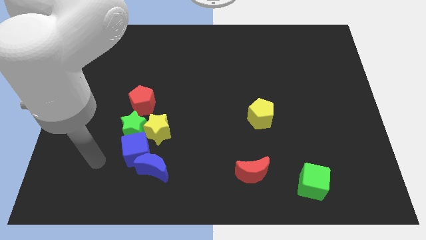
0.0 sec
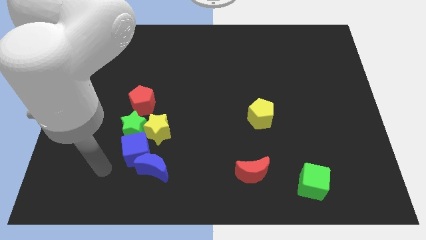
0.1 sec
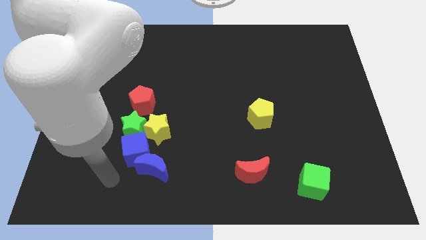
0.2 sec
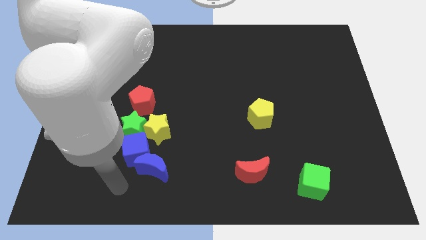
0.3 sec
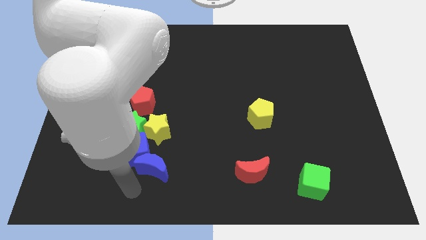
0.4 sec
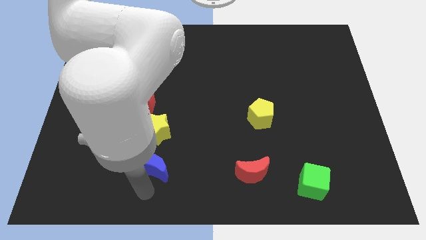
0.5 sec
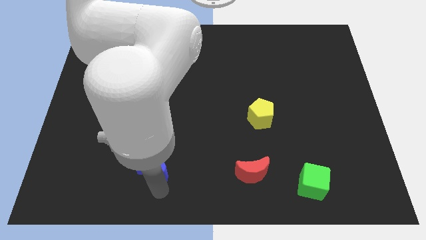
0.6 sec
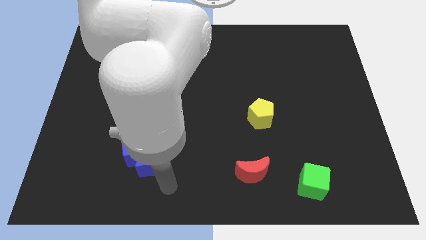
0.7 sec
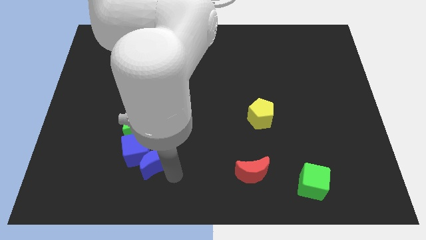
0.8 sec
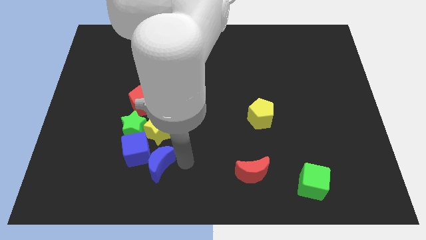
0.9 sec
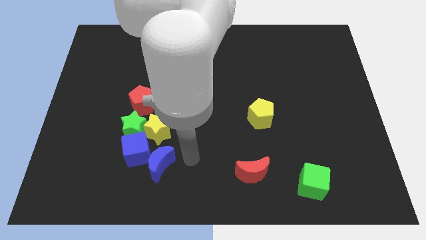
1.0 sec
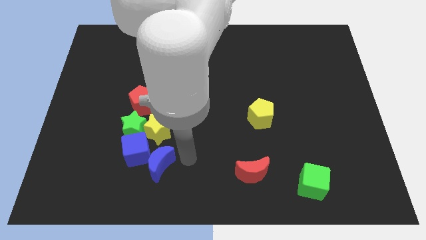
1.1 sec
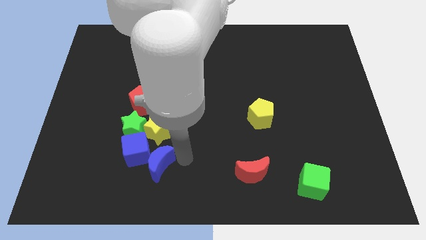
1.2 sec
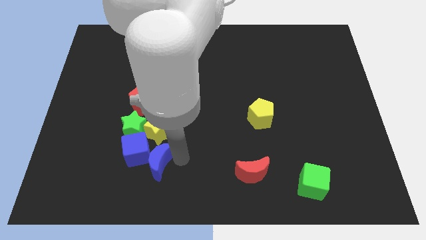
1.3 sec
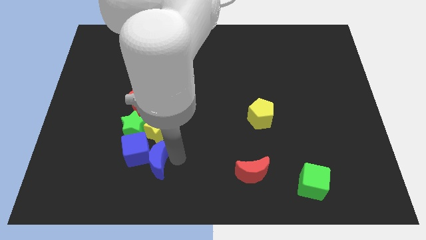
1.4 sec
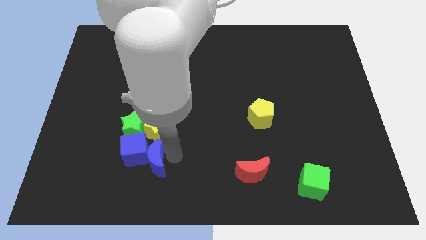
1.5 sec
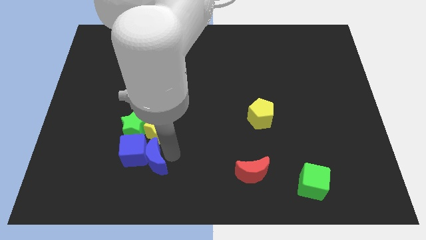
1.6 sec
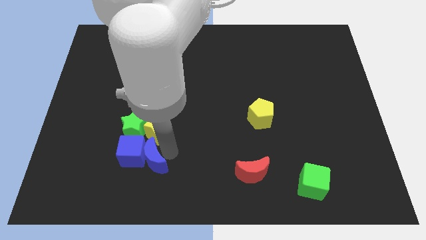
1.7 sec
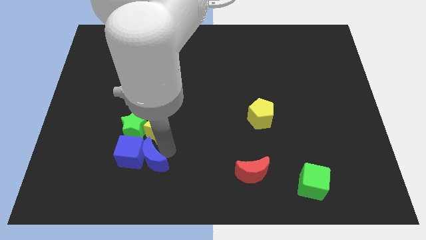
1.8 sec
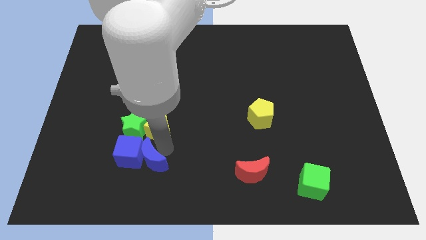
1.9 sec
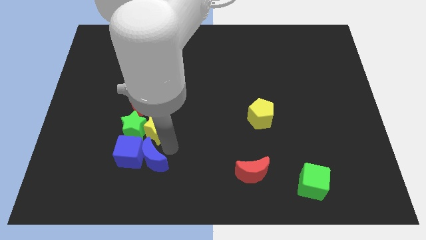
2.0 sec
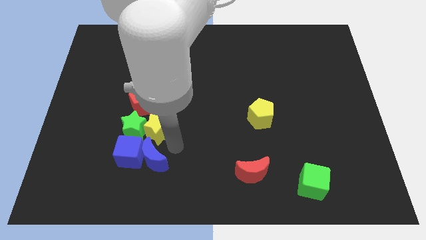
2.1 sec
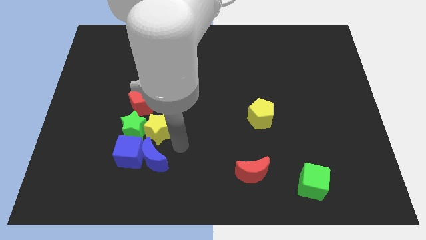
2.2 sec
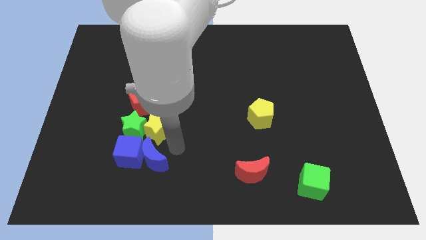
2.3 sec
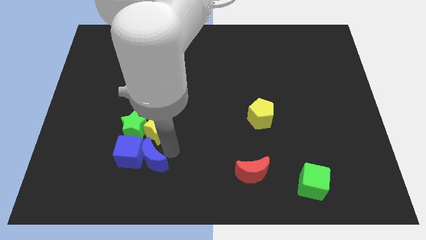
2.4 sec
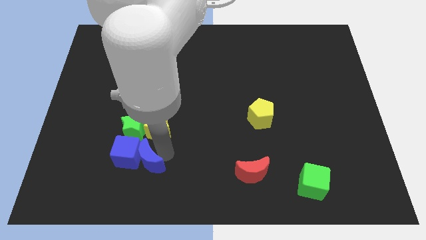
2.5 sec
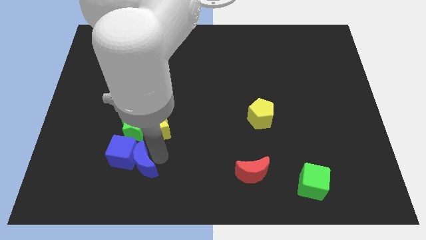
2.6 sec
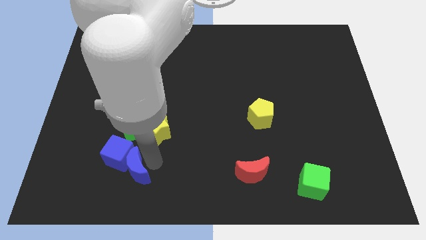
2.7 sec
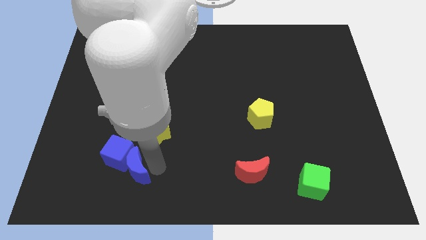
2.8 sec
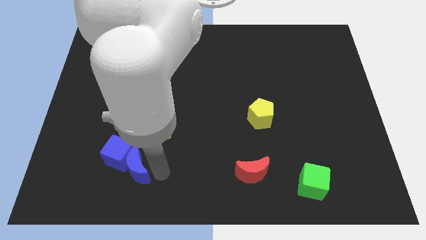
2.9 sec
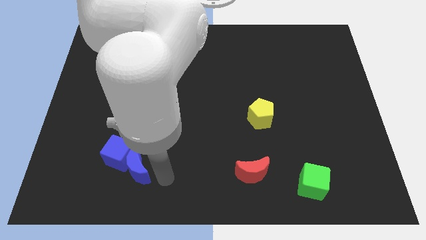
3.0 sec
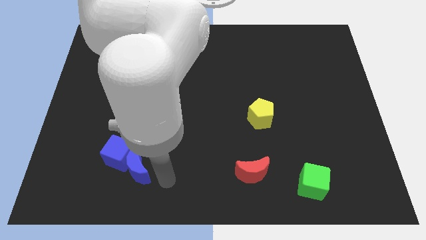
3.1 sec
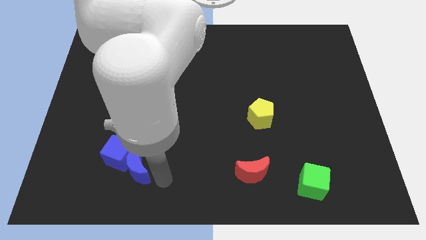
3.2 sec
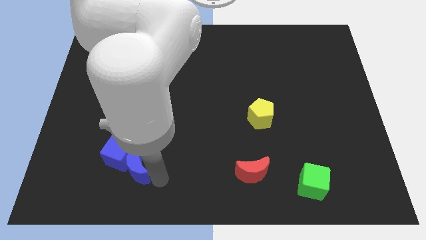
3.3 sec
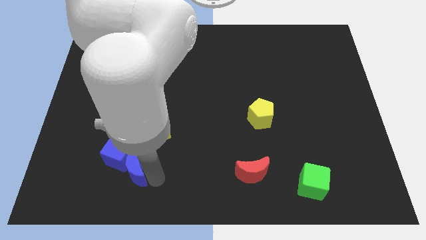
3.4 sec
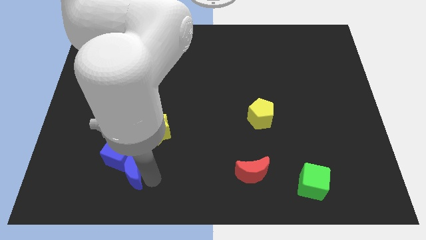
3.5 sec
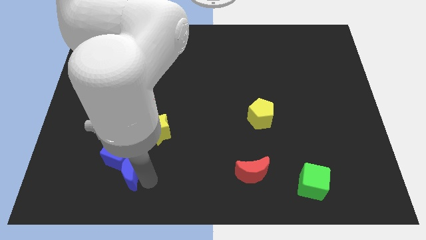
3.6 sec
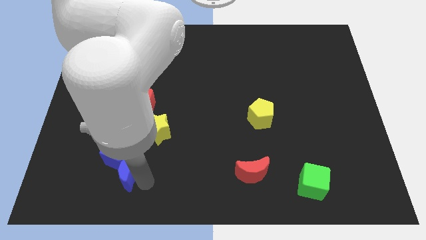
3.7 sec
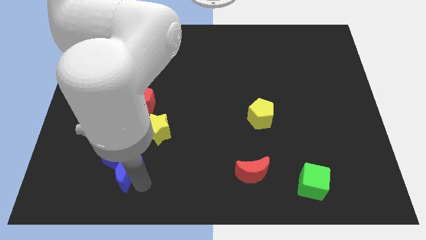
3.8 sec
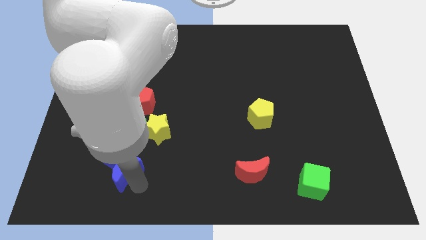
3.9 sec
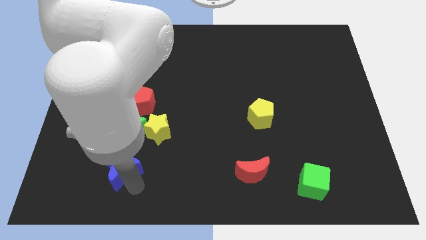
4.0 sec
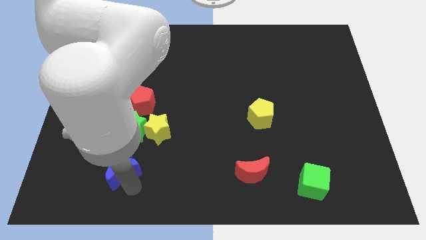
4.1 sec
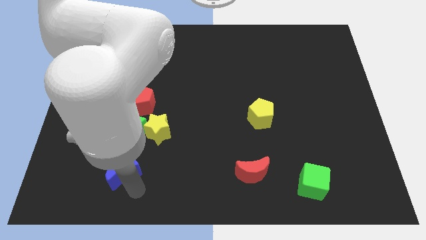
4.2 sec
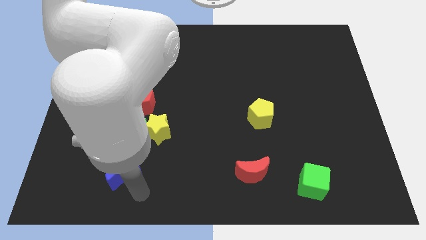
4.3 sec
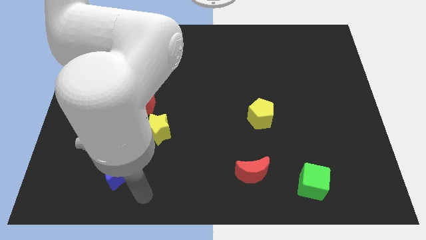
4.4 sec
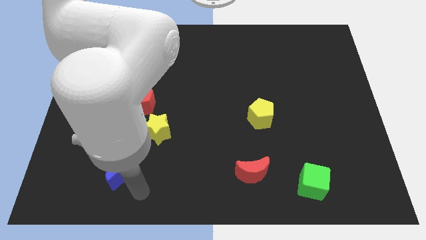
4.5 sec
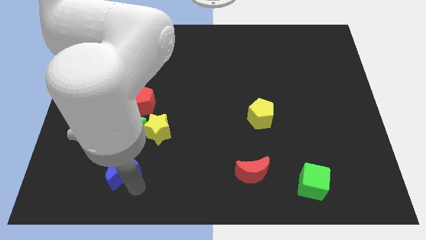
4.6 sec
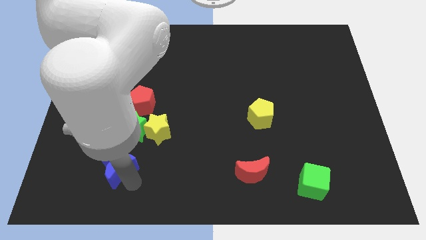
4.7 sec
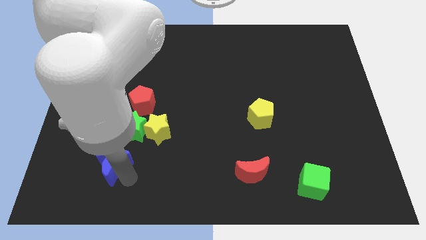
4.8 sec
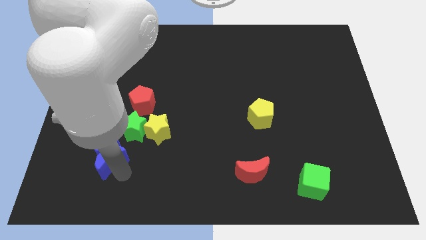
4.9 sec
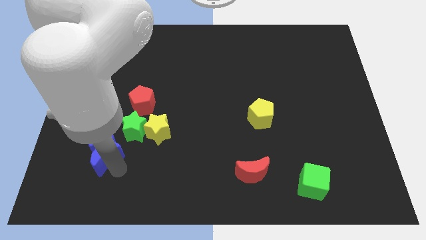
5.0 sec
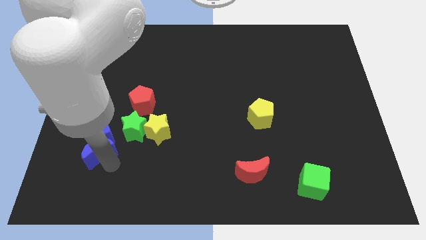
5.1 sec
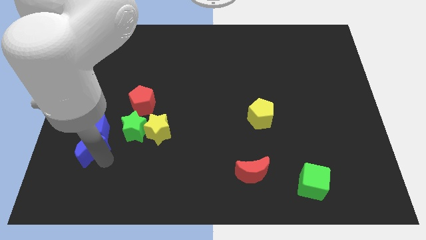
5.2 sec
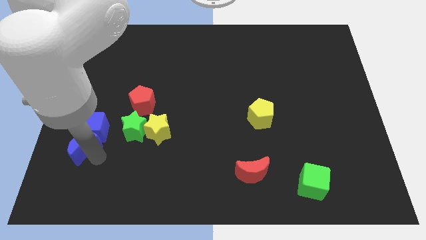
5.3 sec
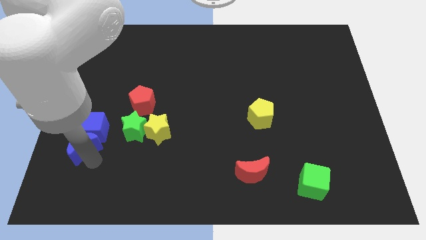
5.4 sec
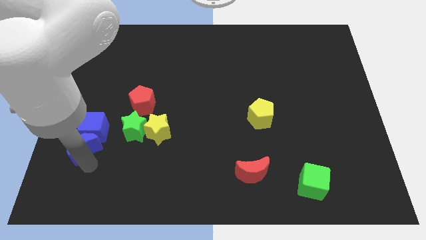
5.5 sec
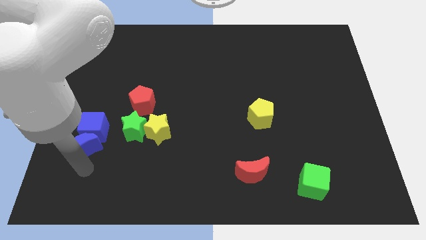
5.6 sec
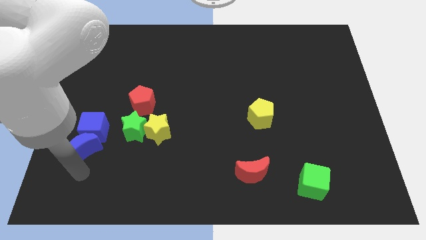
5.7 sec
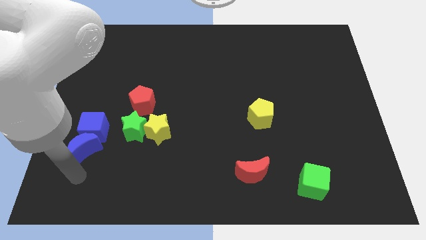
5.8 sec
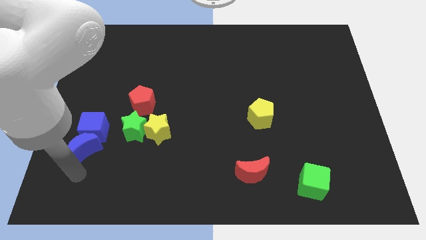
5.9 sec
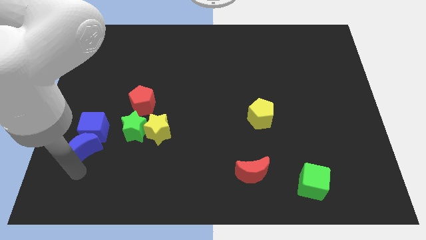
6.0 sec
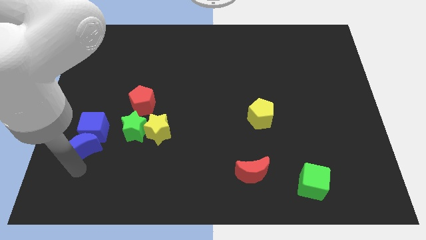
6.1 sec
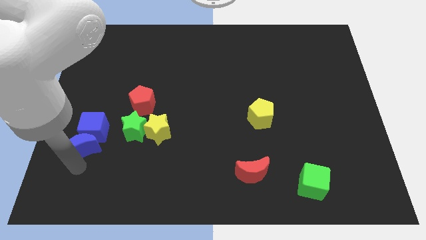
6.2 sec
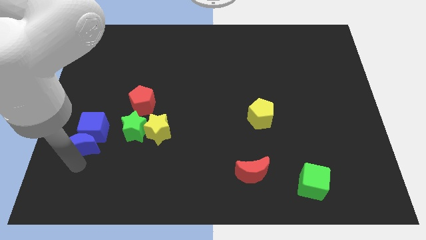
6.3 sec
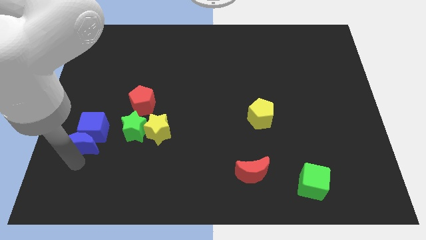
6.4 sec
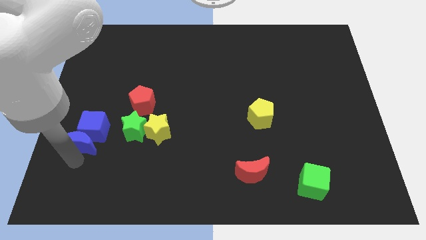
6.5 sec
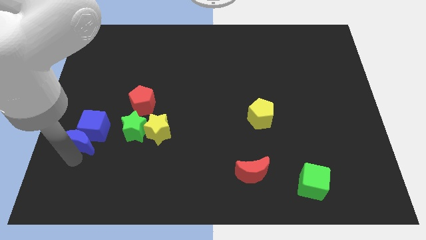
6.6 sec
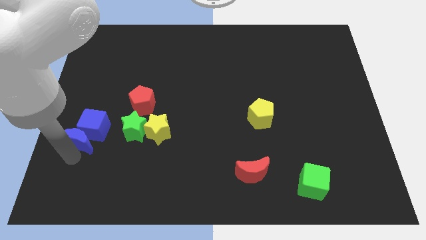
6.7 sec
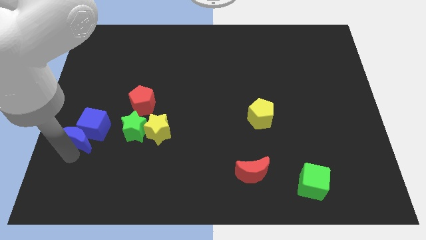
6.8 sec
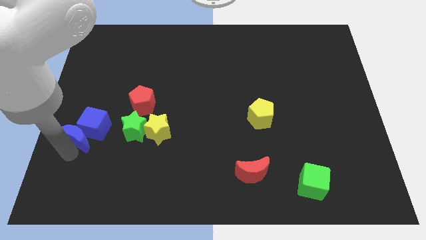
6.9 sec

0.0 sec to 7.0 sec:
move the blue moon to the left side
